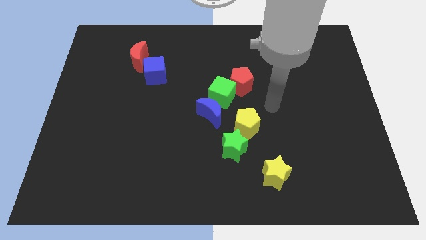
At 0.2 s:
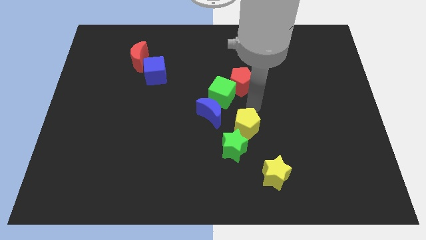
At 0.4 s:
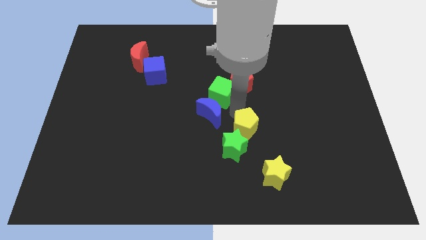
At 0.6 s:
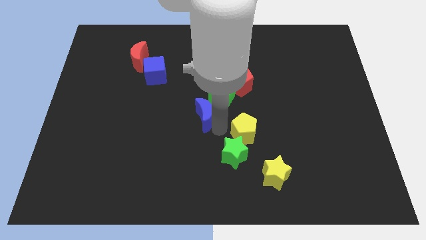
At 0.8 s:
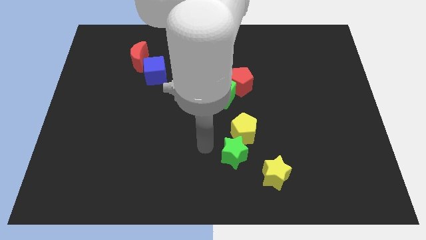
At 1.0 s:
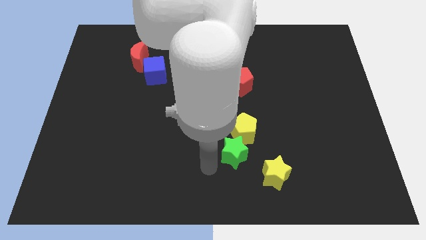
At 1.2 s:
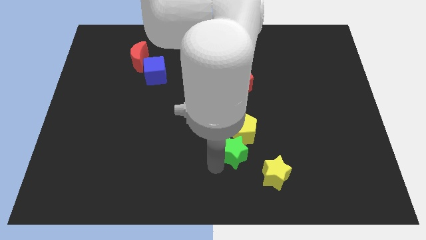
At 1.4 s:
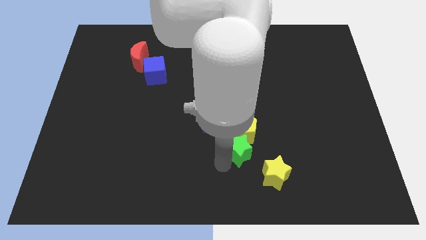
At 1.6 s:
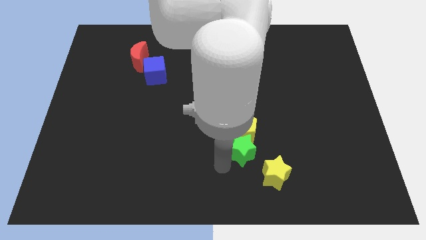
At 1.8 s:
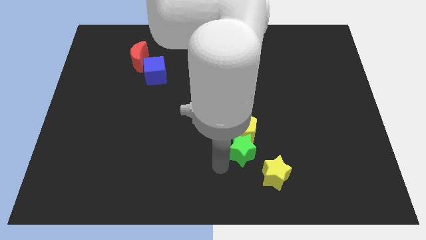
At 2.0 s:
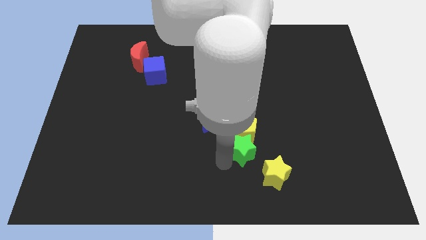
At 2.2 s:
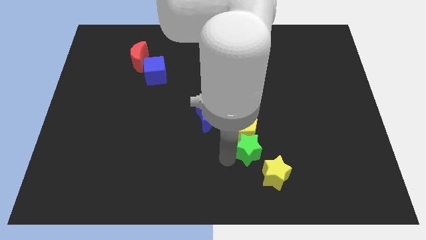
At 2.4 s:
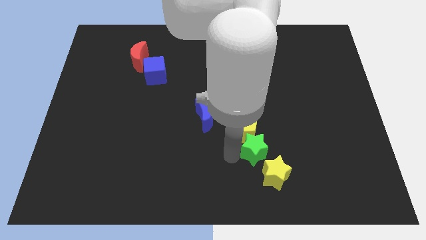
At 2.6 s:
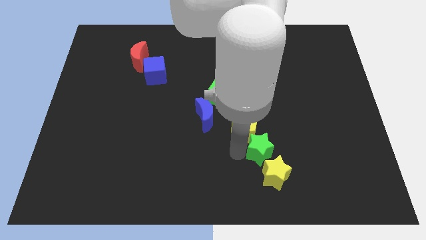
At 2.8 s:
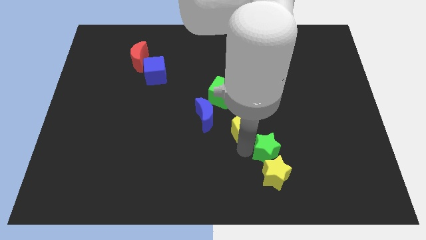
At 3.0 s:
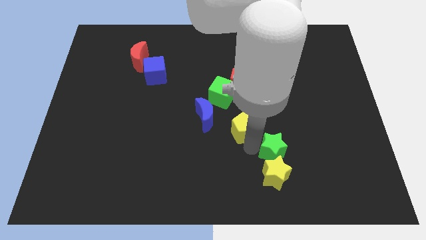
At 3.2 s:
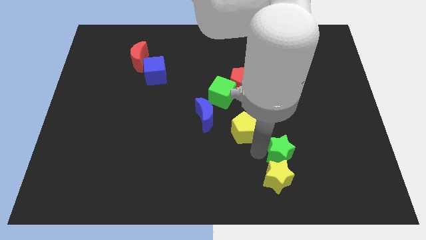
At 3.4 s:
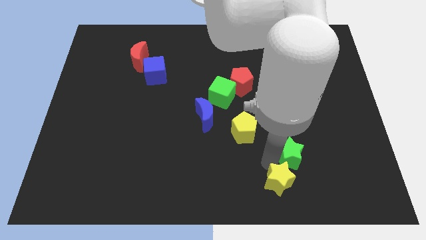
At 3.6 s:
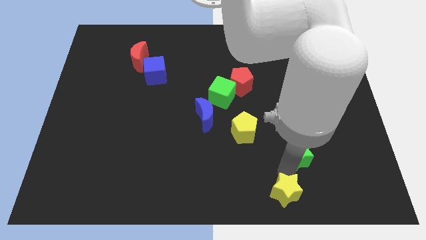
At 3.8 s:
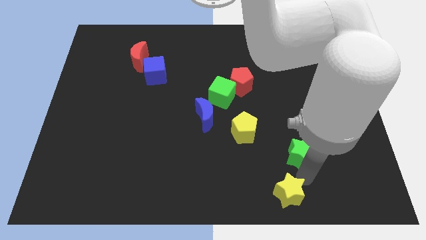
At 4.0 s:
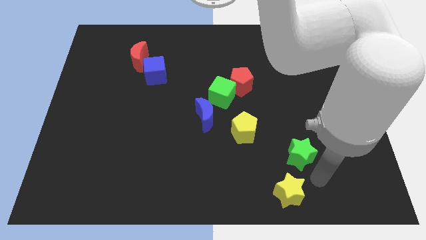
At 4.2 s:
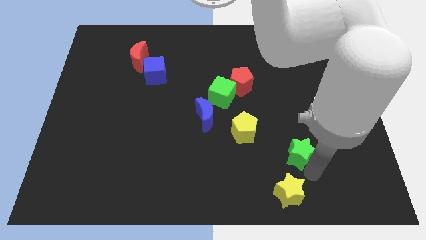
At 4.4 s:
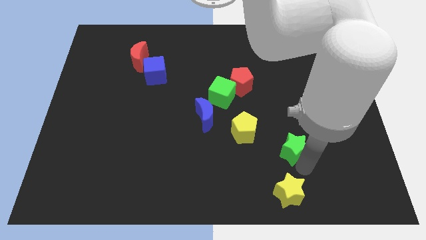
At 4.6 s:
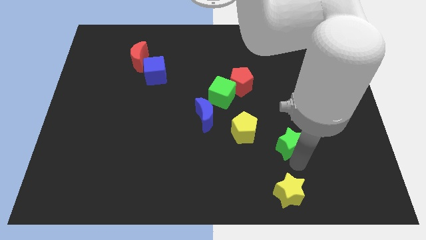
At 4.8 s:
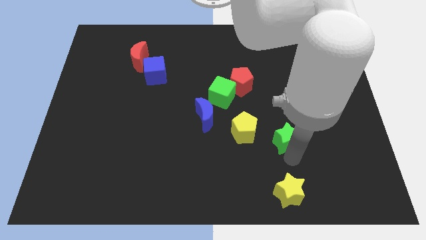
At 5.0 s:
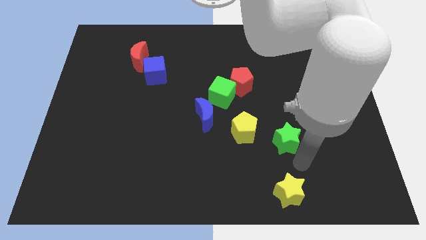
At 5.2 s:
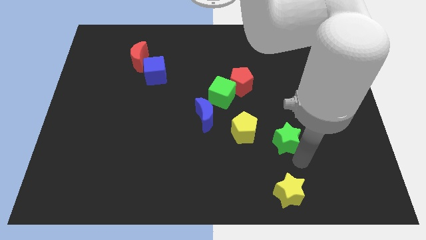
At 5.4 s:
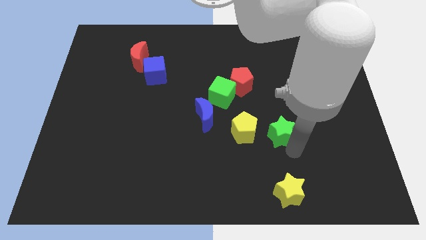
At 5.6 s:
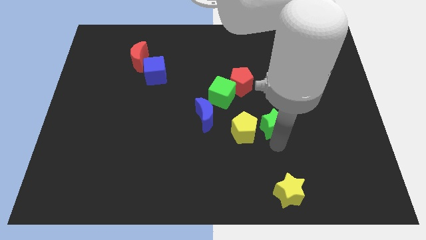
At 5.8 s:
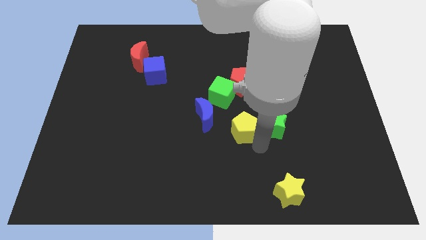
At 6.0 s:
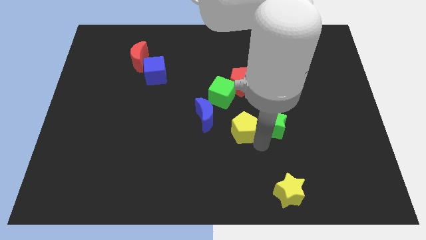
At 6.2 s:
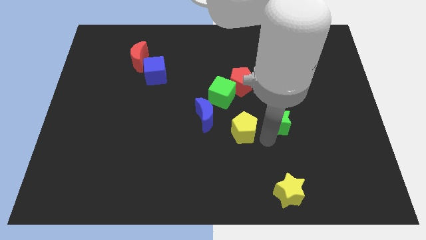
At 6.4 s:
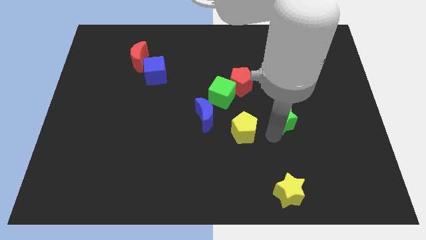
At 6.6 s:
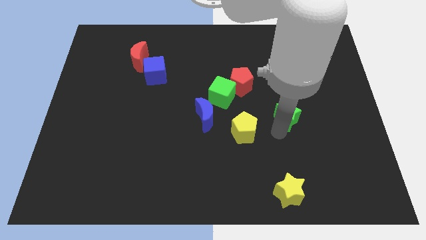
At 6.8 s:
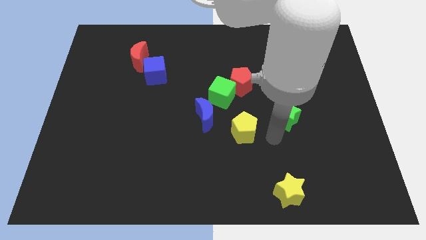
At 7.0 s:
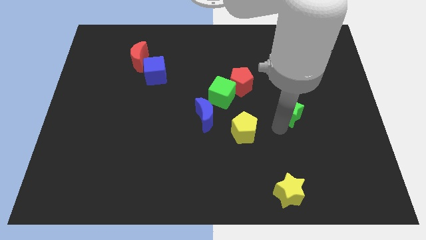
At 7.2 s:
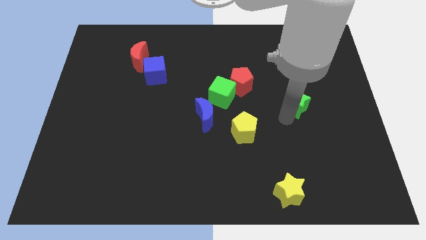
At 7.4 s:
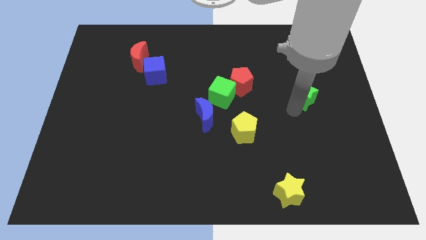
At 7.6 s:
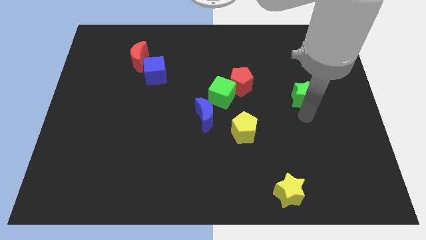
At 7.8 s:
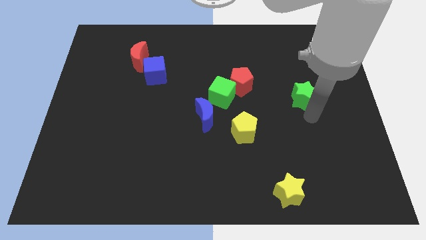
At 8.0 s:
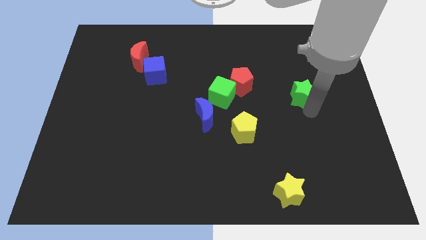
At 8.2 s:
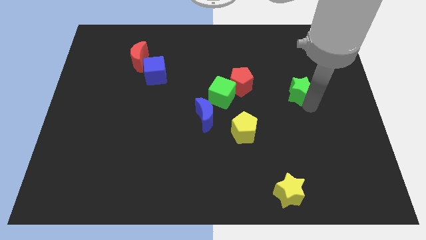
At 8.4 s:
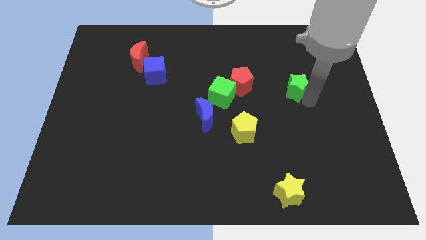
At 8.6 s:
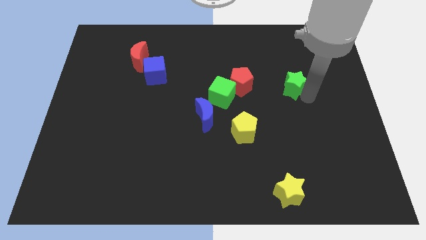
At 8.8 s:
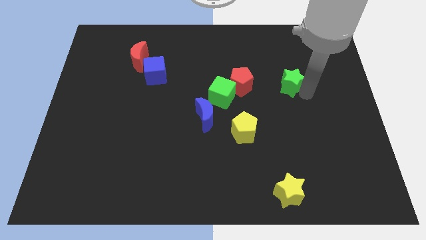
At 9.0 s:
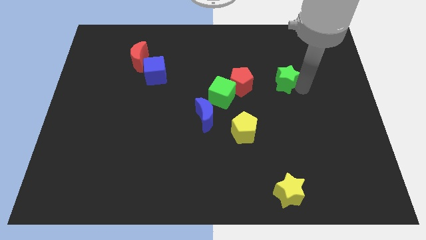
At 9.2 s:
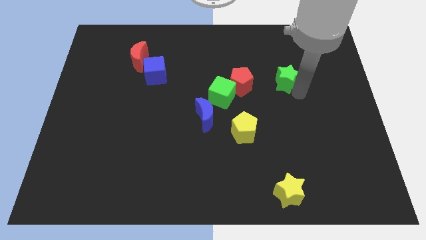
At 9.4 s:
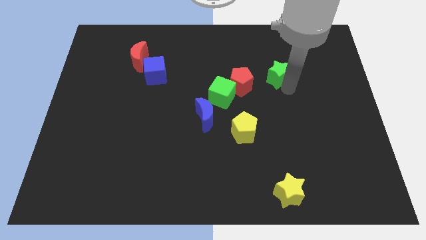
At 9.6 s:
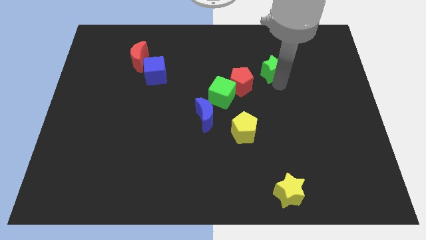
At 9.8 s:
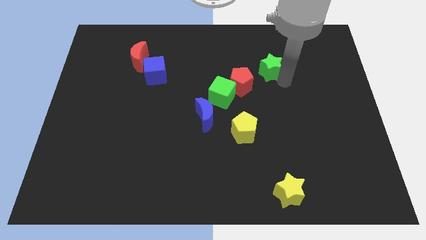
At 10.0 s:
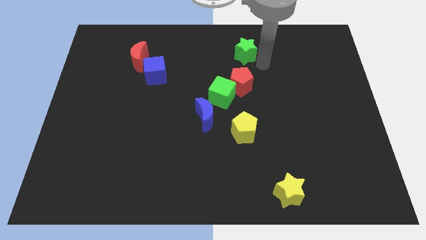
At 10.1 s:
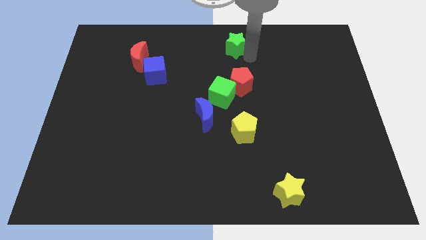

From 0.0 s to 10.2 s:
put the green star to the top side

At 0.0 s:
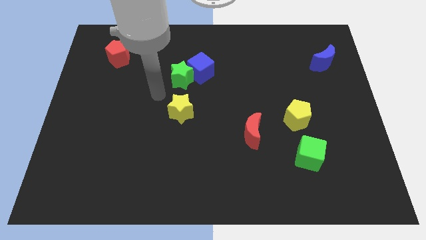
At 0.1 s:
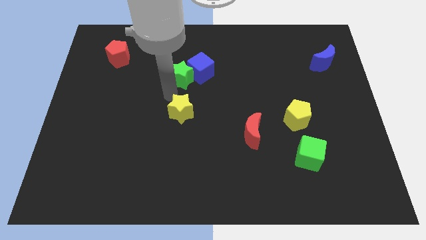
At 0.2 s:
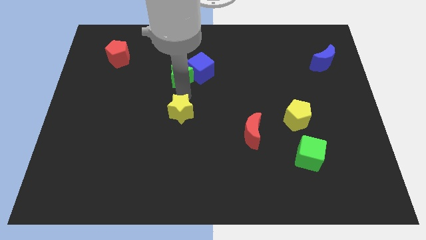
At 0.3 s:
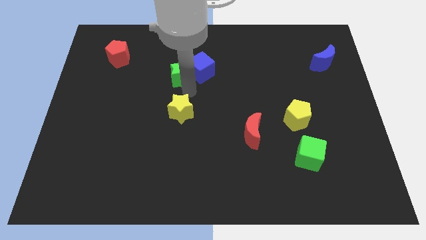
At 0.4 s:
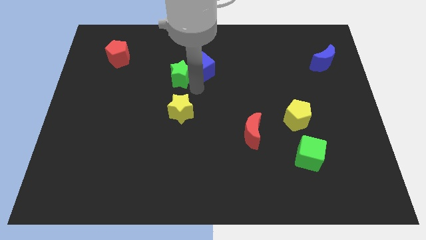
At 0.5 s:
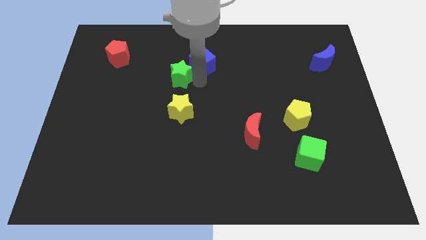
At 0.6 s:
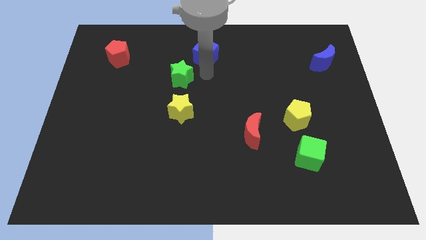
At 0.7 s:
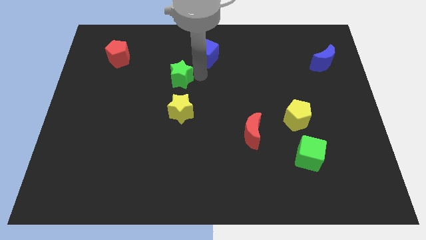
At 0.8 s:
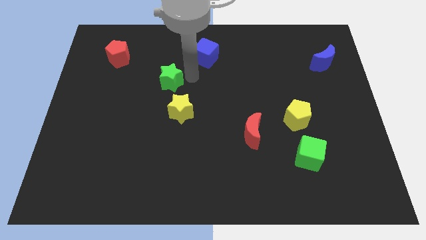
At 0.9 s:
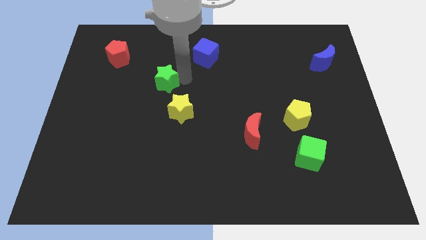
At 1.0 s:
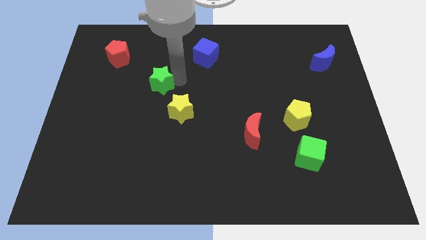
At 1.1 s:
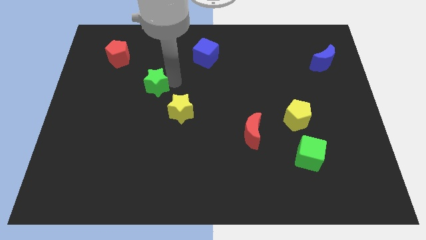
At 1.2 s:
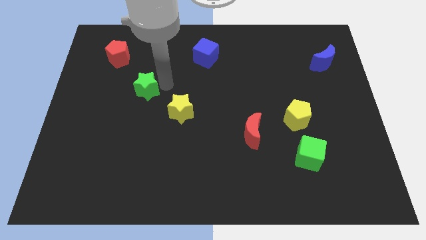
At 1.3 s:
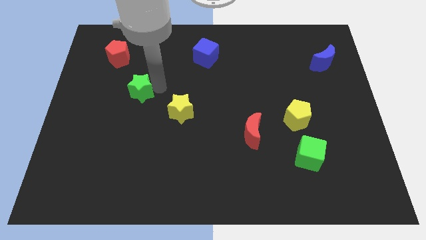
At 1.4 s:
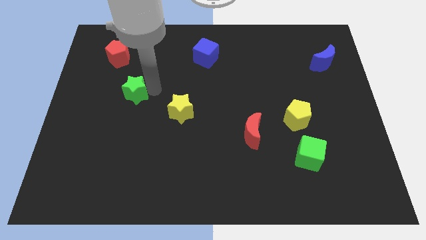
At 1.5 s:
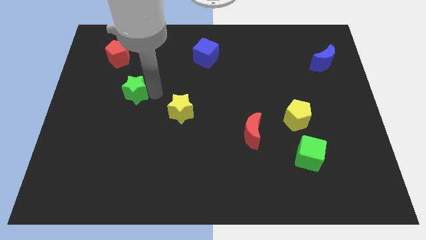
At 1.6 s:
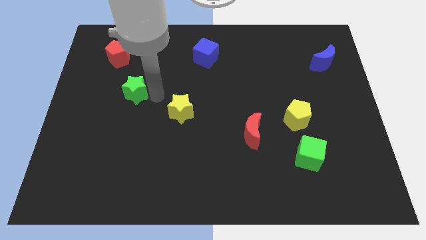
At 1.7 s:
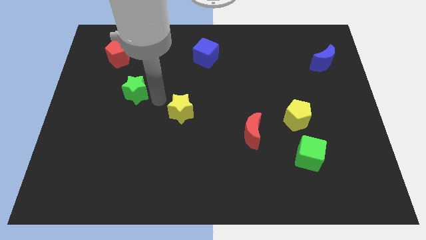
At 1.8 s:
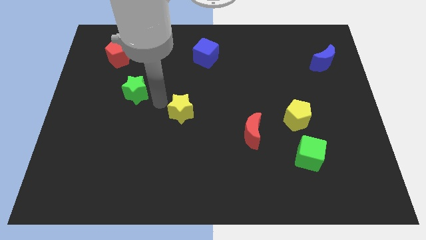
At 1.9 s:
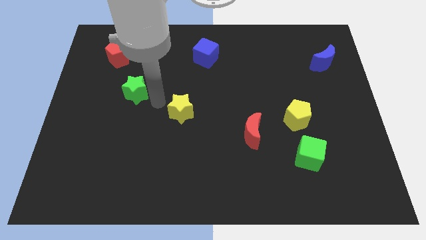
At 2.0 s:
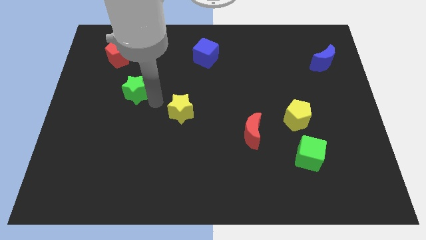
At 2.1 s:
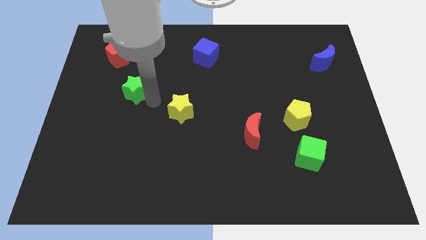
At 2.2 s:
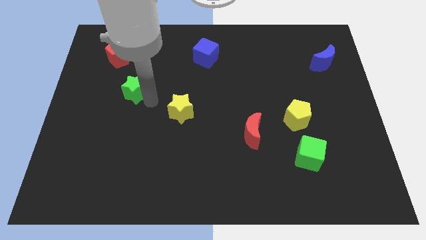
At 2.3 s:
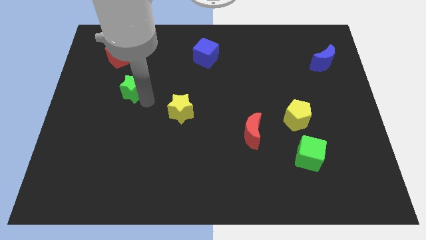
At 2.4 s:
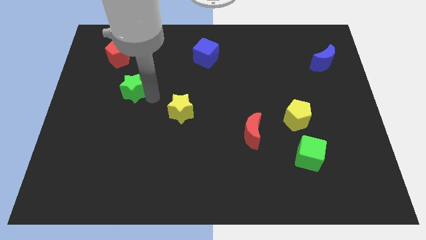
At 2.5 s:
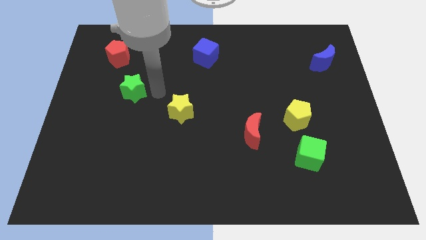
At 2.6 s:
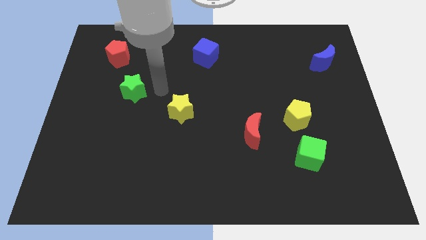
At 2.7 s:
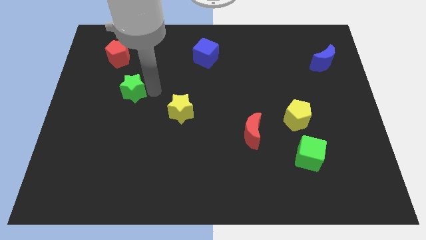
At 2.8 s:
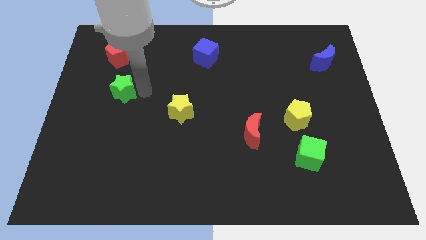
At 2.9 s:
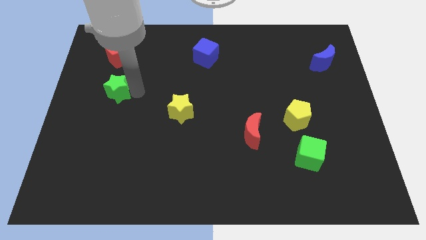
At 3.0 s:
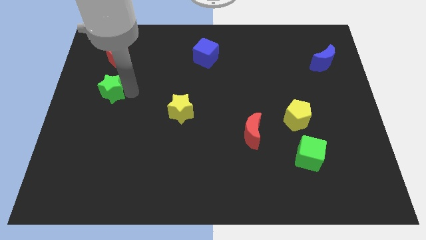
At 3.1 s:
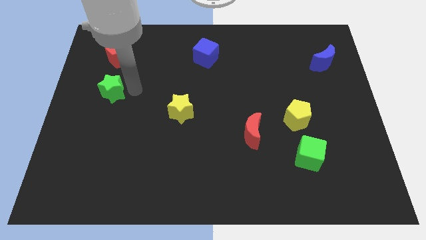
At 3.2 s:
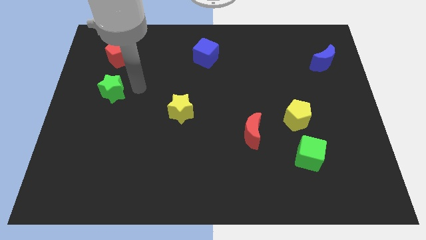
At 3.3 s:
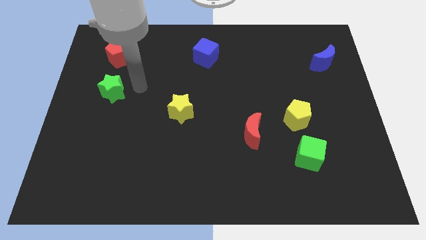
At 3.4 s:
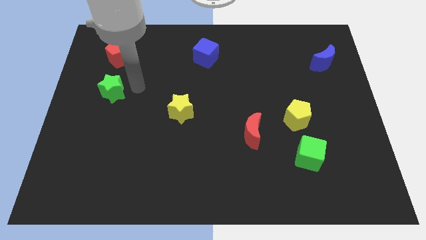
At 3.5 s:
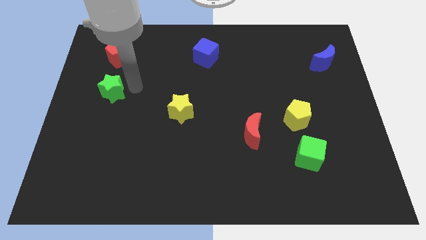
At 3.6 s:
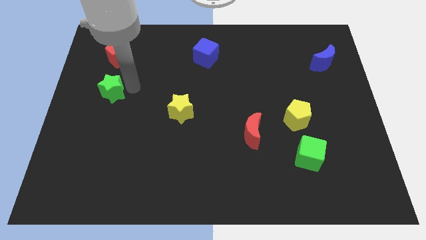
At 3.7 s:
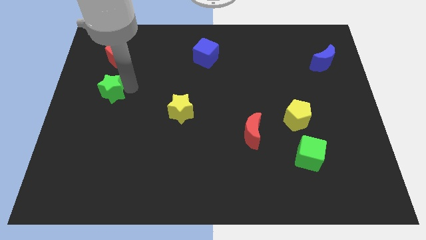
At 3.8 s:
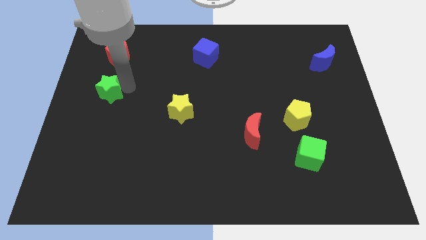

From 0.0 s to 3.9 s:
push the green star to the left side
